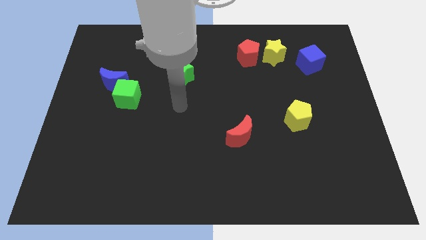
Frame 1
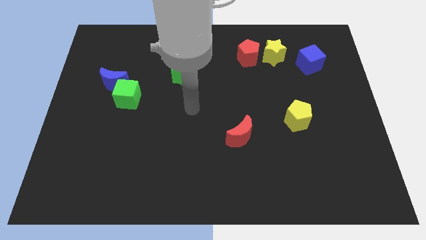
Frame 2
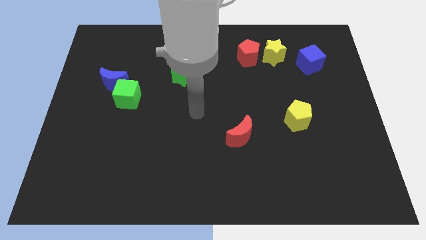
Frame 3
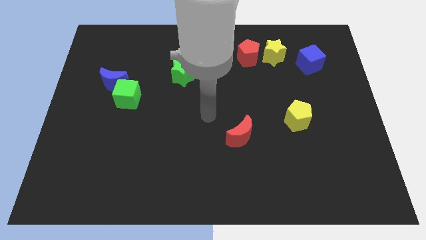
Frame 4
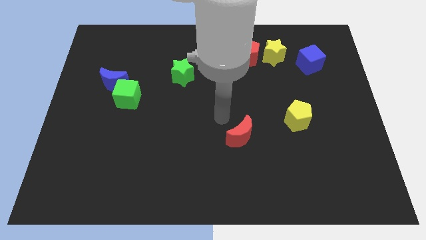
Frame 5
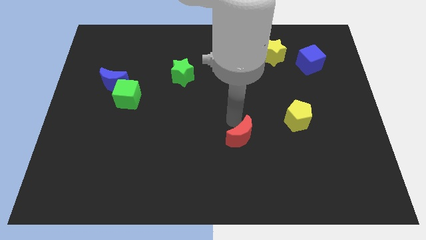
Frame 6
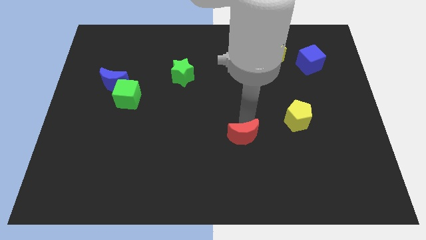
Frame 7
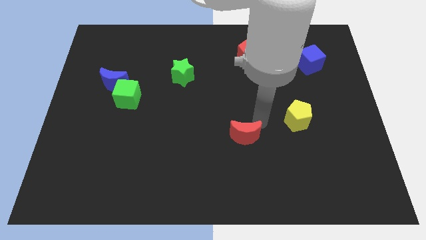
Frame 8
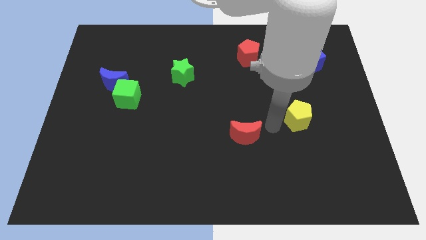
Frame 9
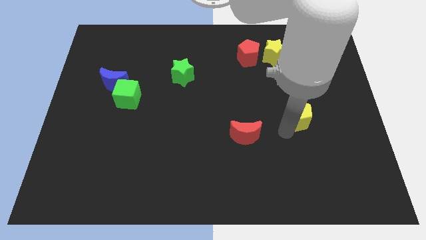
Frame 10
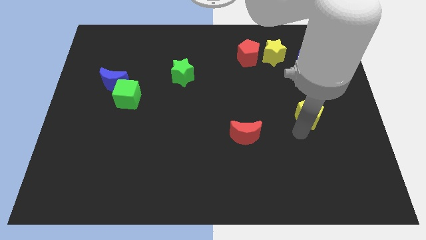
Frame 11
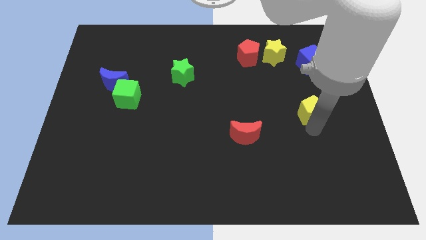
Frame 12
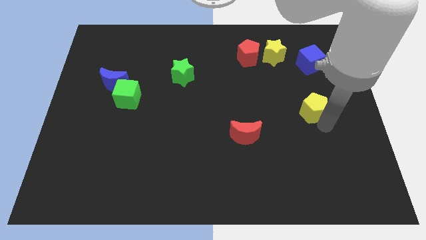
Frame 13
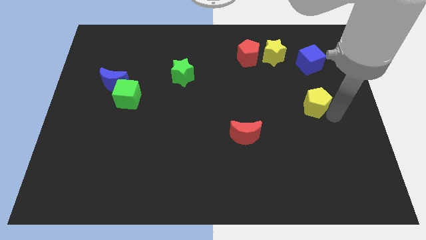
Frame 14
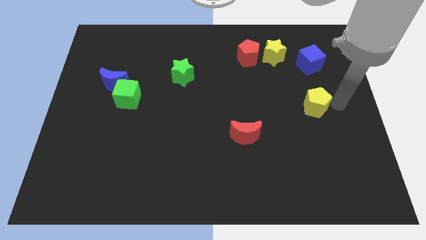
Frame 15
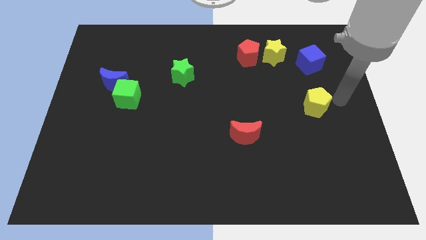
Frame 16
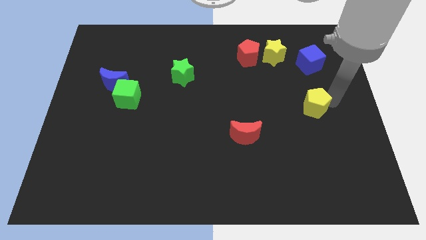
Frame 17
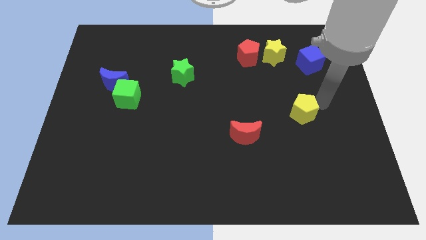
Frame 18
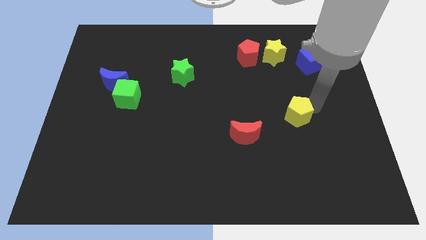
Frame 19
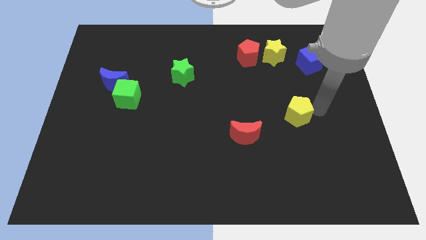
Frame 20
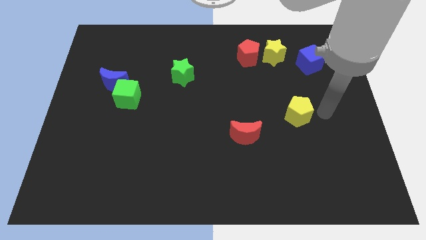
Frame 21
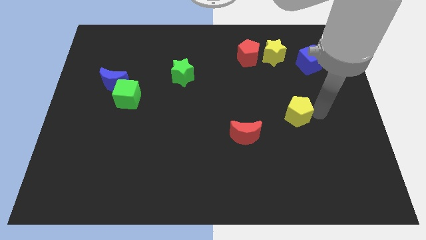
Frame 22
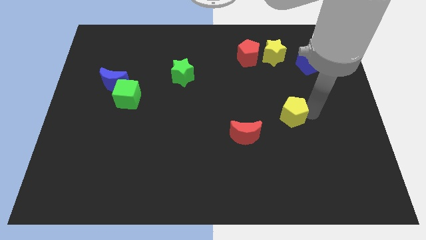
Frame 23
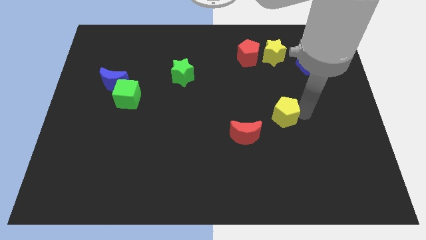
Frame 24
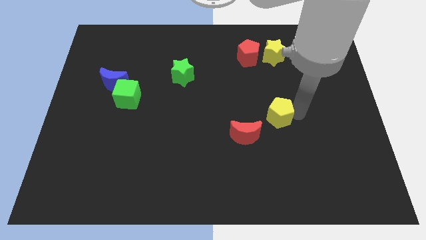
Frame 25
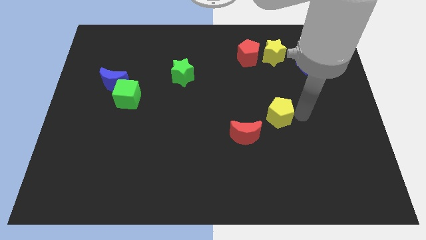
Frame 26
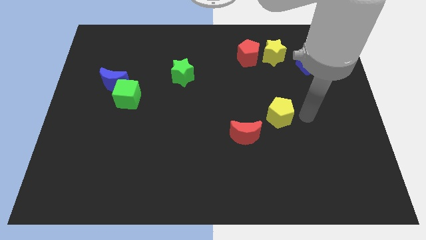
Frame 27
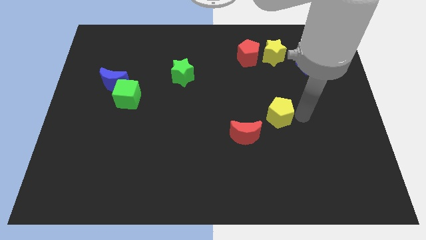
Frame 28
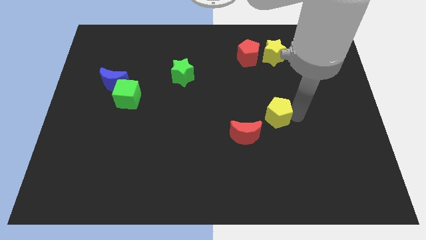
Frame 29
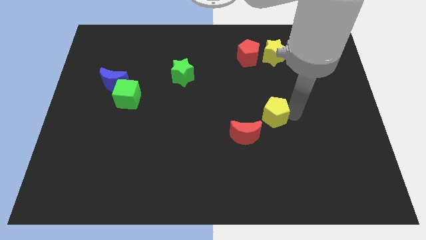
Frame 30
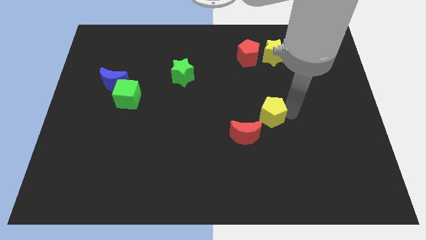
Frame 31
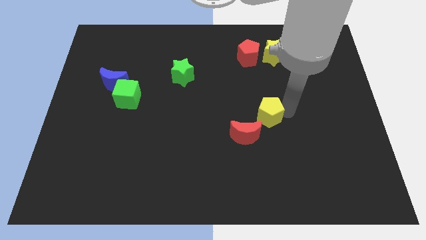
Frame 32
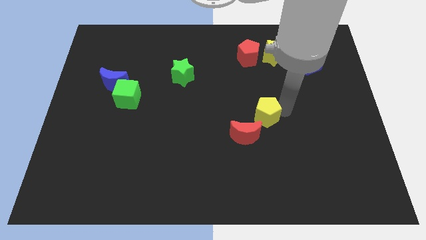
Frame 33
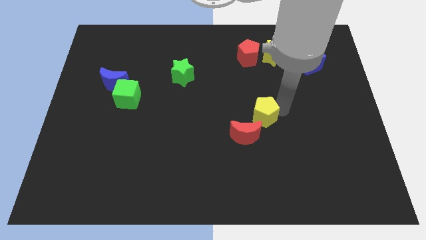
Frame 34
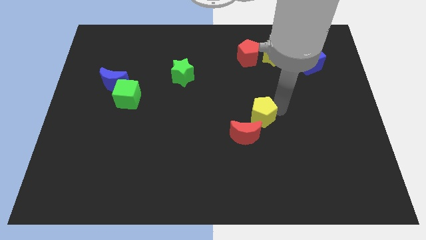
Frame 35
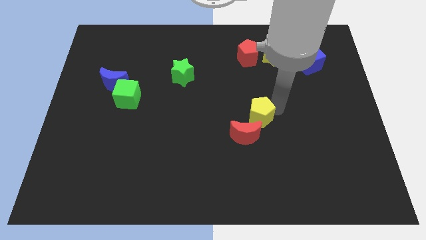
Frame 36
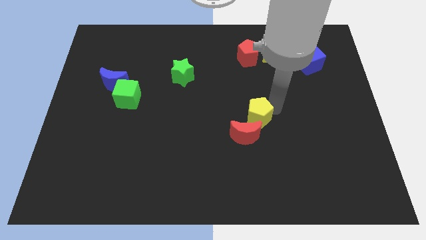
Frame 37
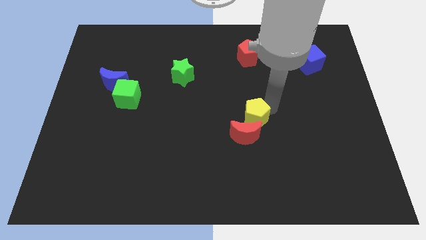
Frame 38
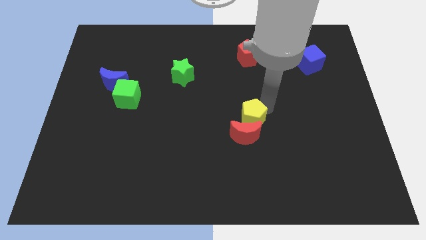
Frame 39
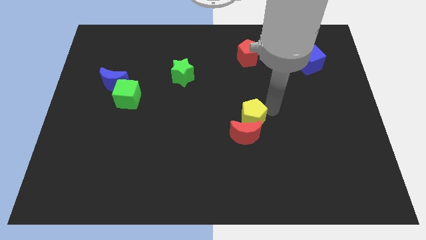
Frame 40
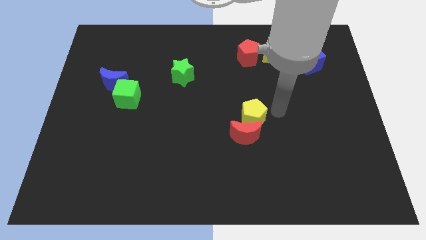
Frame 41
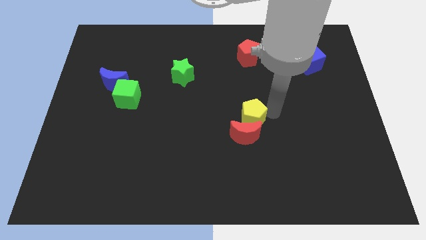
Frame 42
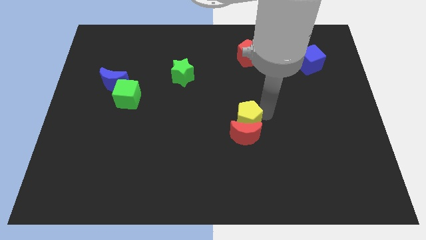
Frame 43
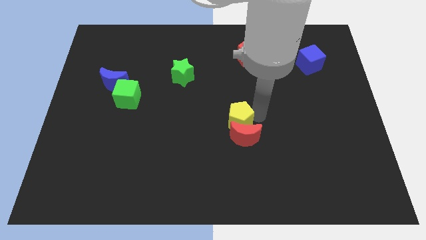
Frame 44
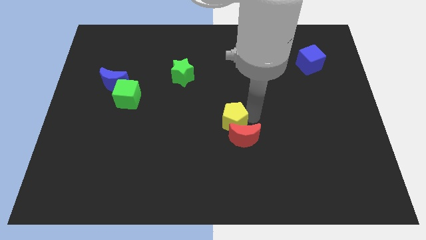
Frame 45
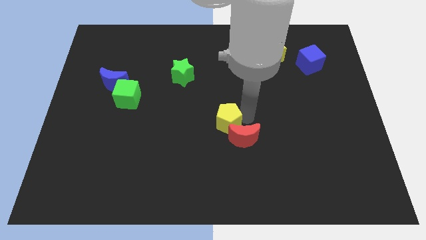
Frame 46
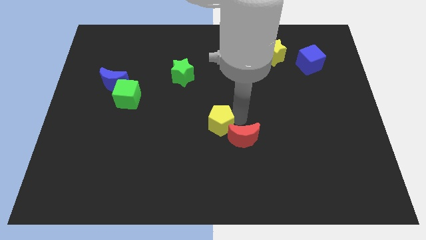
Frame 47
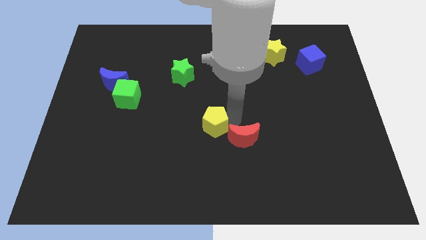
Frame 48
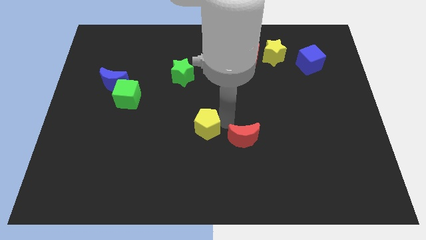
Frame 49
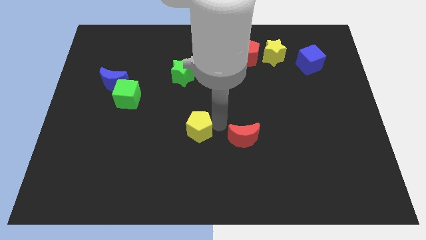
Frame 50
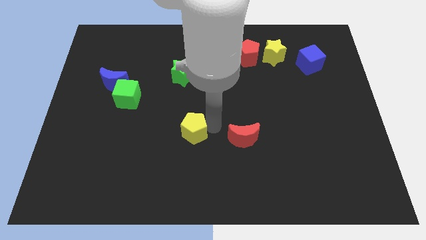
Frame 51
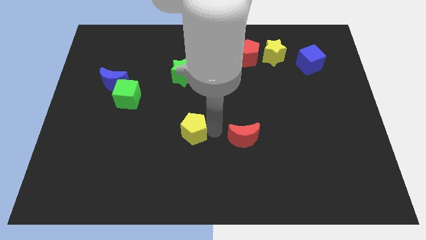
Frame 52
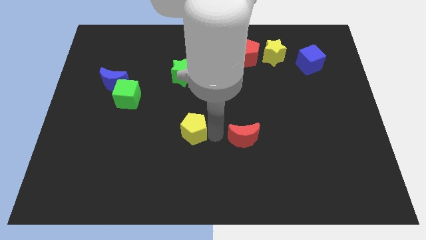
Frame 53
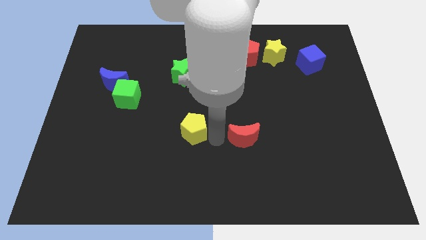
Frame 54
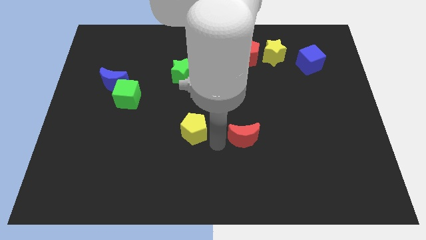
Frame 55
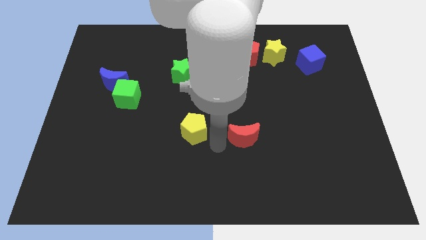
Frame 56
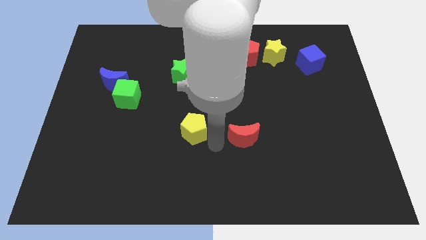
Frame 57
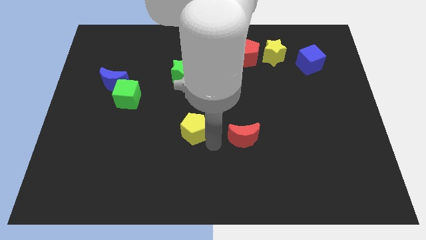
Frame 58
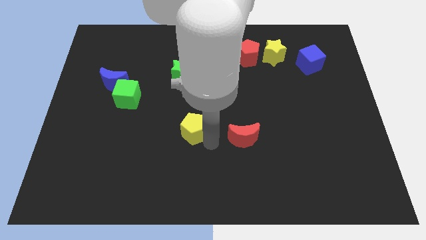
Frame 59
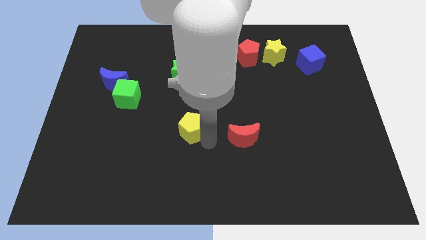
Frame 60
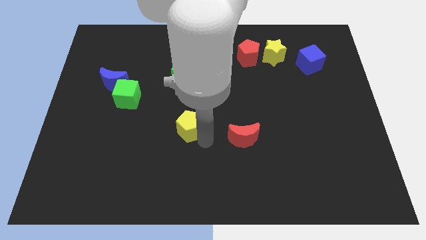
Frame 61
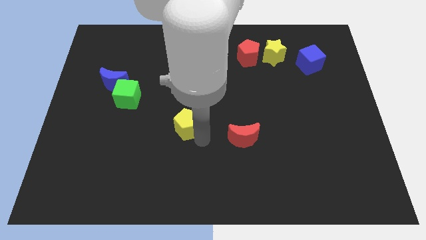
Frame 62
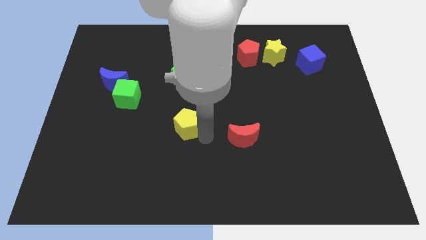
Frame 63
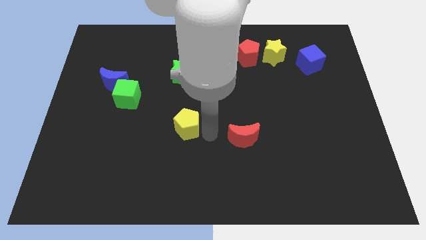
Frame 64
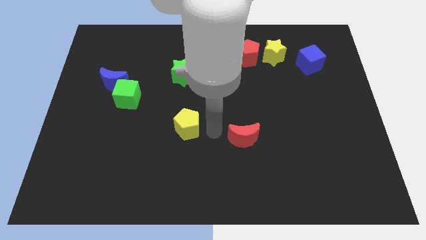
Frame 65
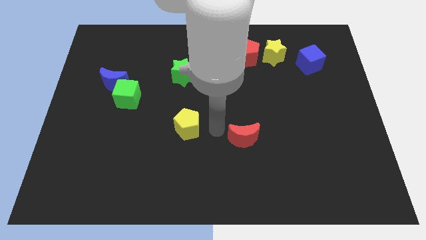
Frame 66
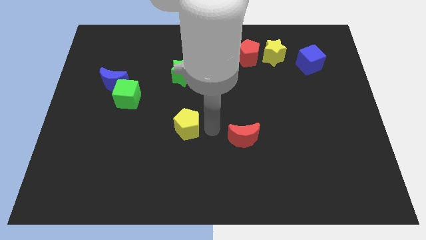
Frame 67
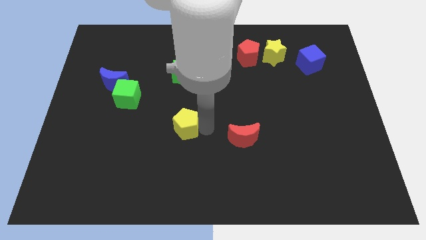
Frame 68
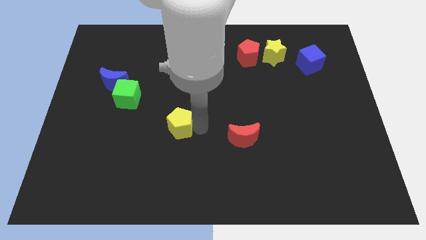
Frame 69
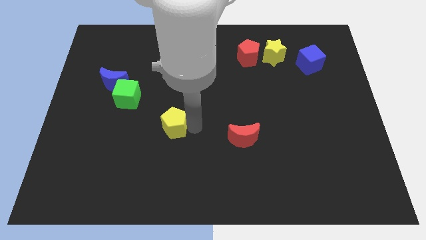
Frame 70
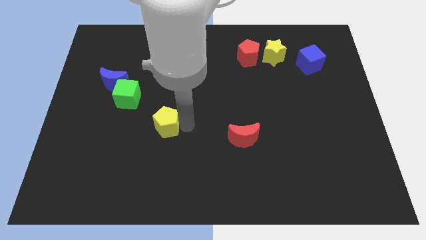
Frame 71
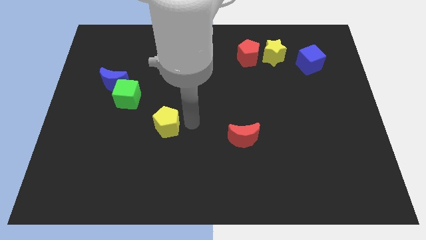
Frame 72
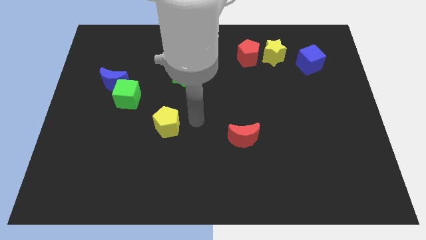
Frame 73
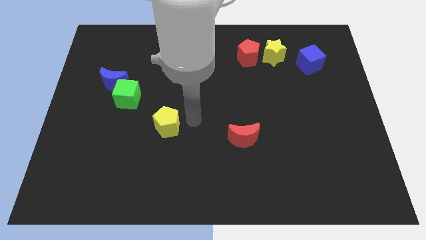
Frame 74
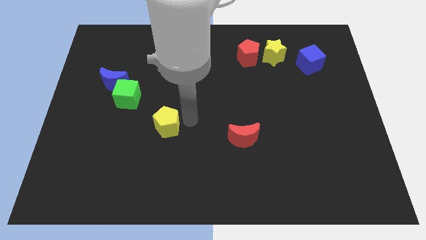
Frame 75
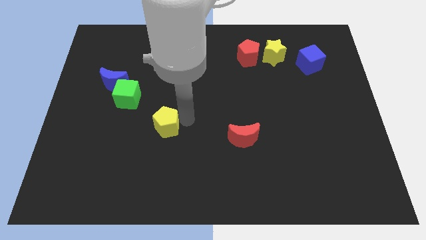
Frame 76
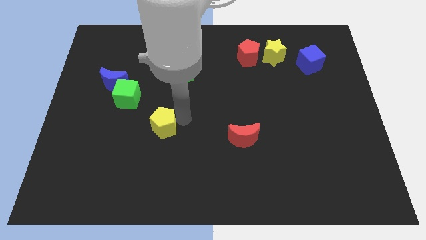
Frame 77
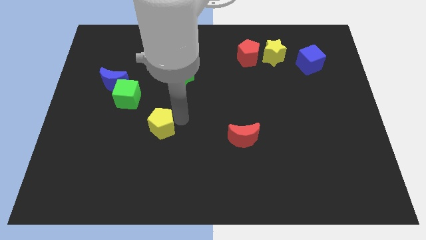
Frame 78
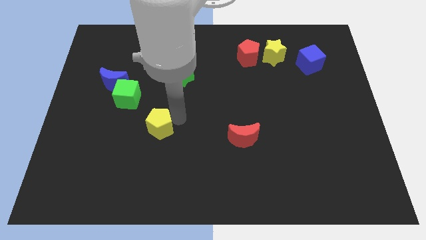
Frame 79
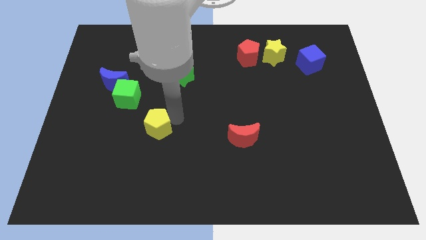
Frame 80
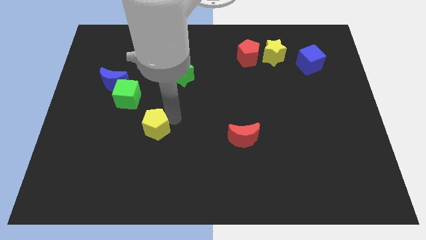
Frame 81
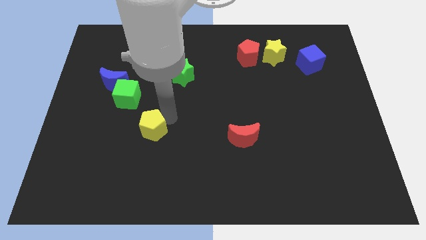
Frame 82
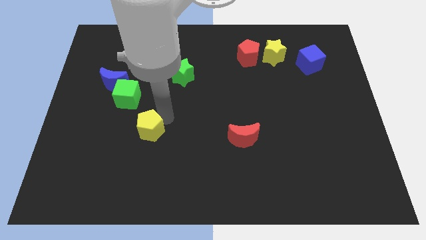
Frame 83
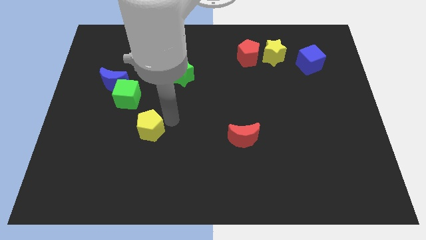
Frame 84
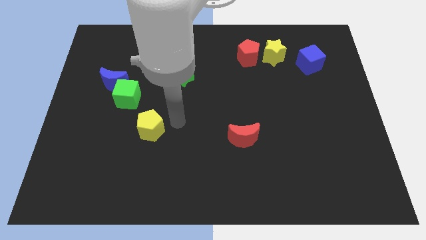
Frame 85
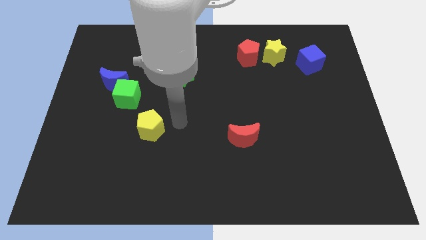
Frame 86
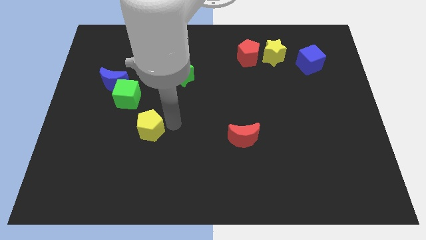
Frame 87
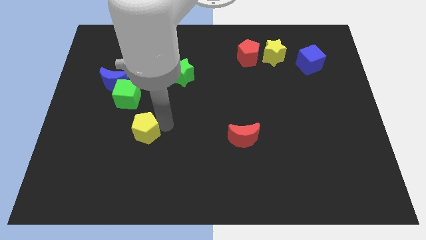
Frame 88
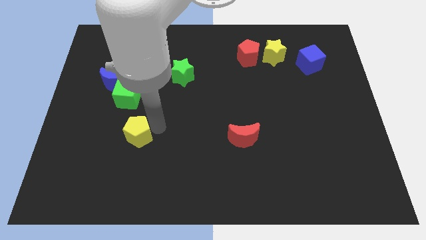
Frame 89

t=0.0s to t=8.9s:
move the yellow pentagon to the bottom side of the green cube
